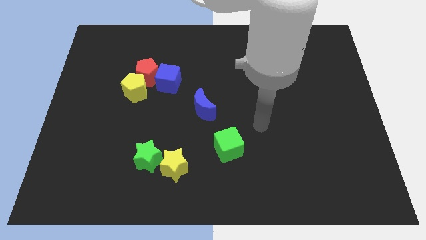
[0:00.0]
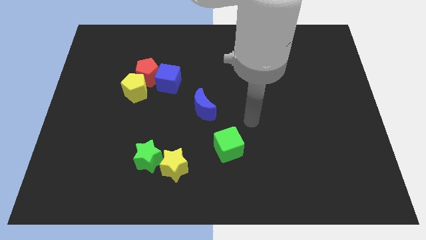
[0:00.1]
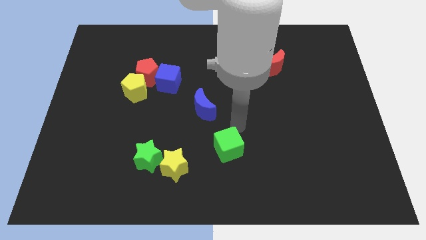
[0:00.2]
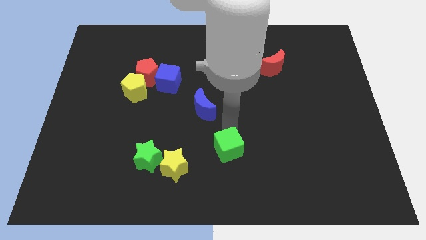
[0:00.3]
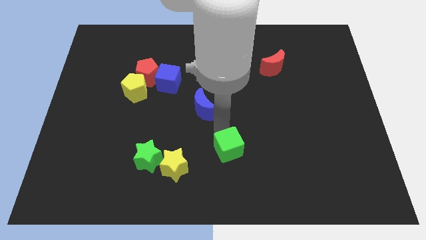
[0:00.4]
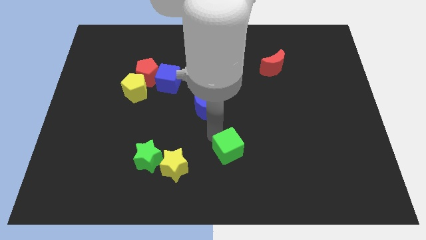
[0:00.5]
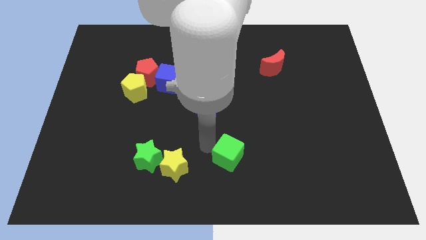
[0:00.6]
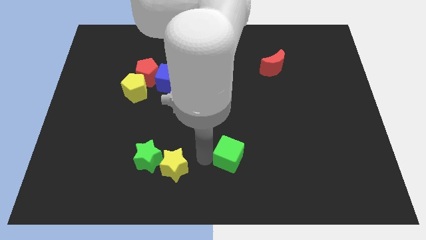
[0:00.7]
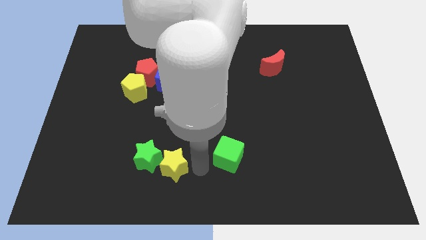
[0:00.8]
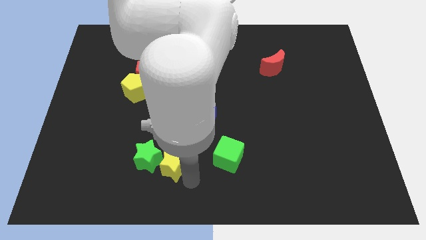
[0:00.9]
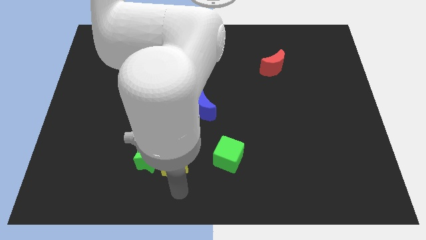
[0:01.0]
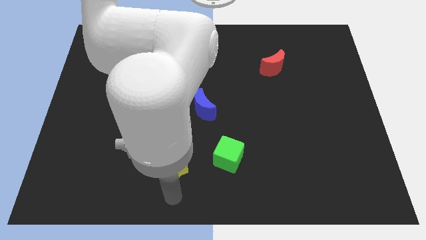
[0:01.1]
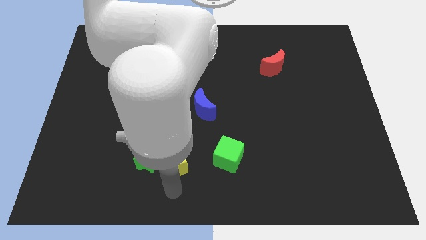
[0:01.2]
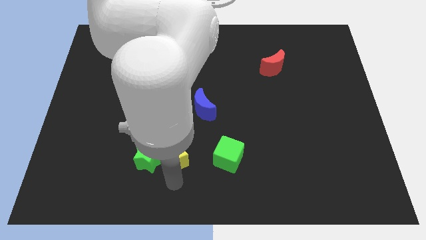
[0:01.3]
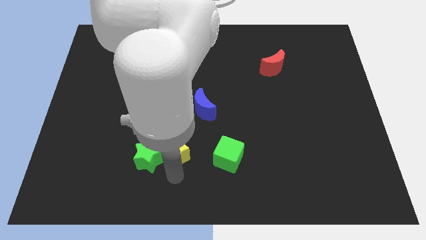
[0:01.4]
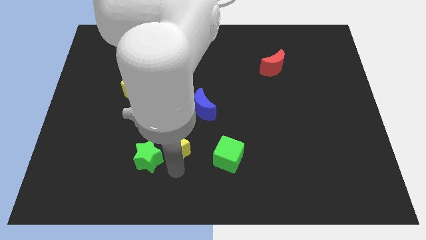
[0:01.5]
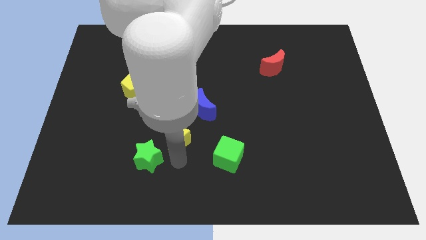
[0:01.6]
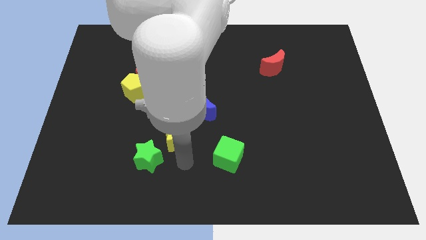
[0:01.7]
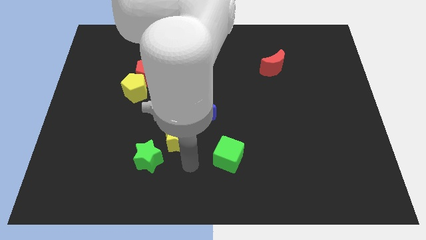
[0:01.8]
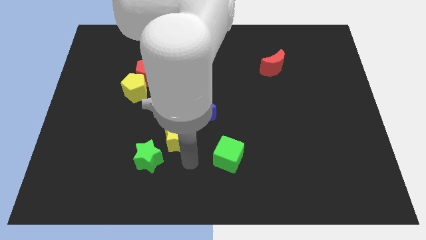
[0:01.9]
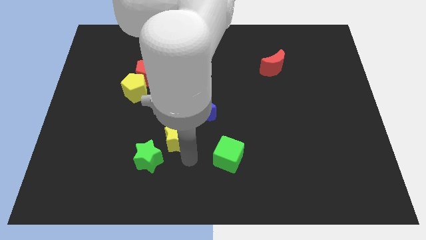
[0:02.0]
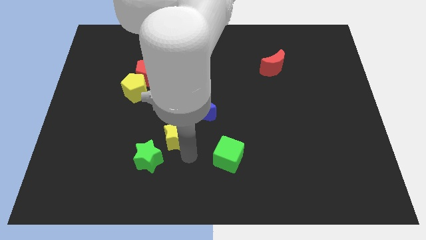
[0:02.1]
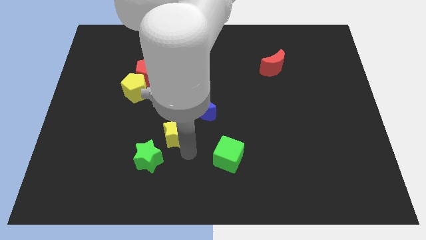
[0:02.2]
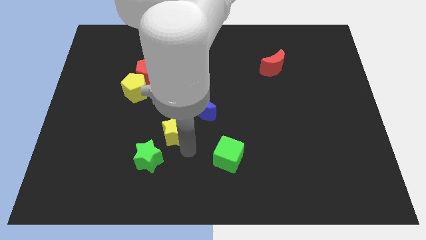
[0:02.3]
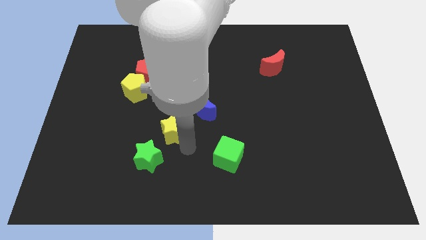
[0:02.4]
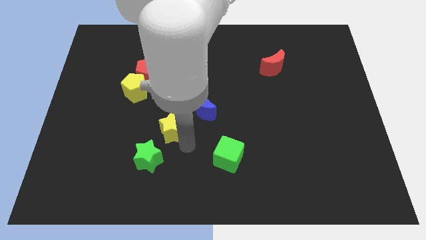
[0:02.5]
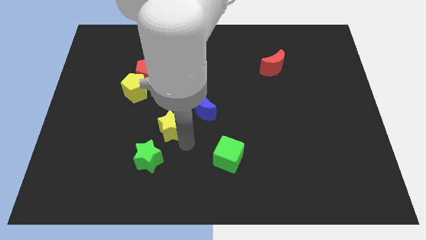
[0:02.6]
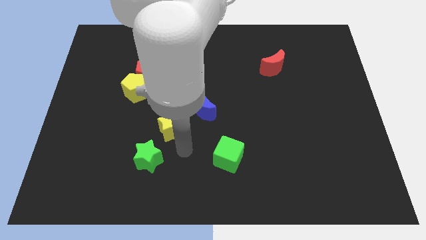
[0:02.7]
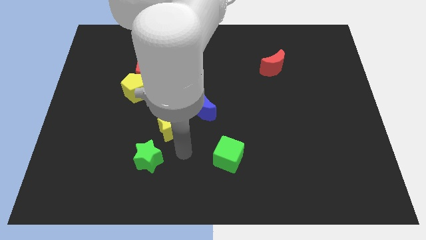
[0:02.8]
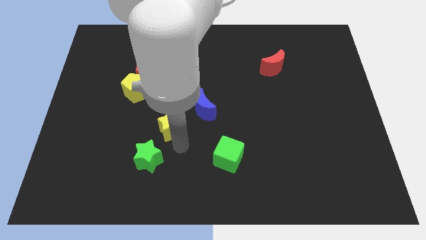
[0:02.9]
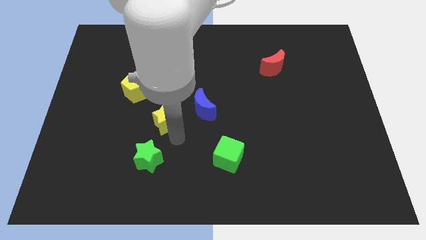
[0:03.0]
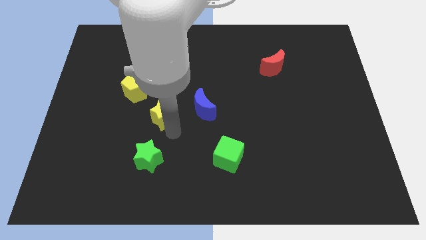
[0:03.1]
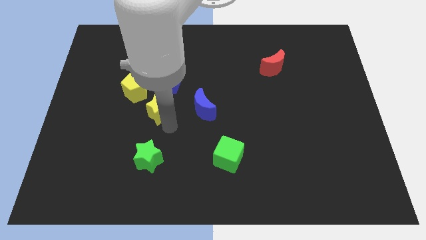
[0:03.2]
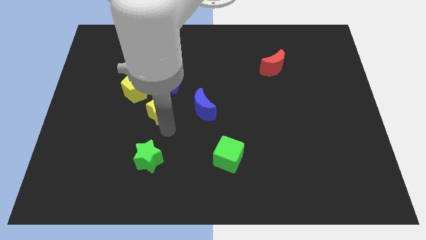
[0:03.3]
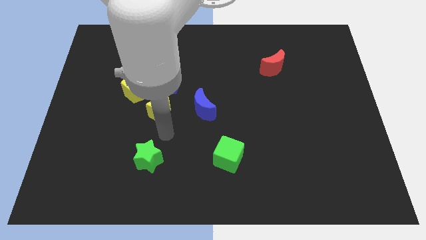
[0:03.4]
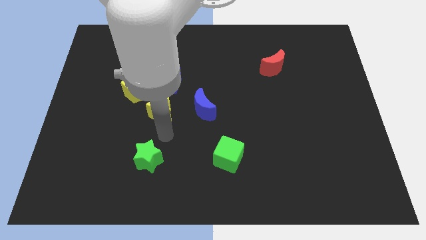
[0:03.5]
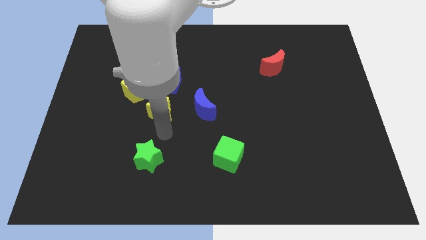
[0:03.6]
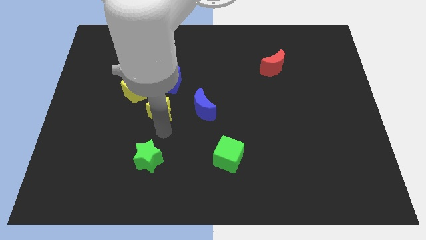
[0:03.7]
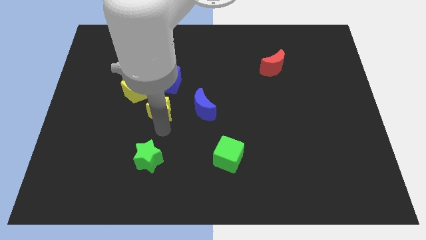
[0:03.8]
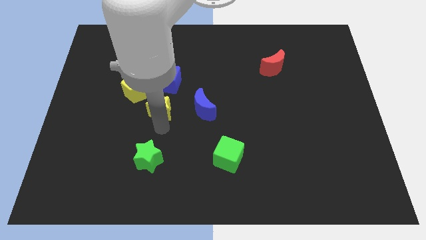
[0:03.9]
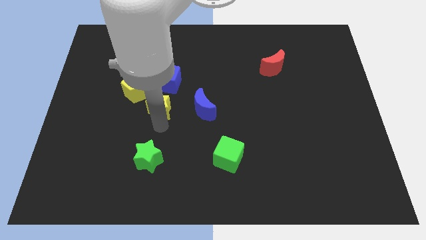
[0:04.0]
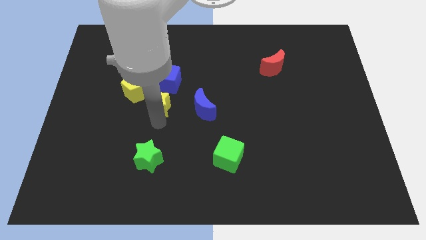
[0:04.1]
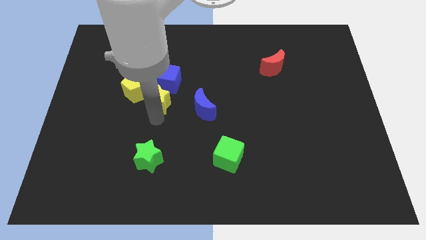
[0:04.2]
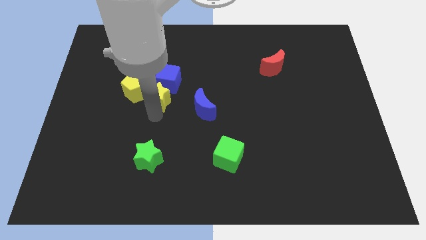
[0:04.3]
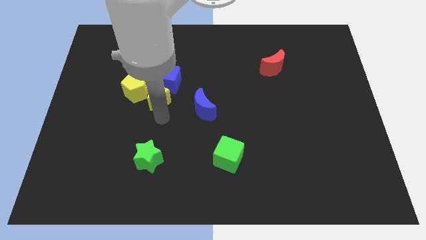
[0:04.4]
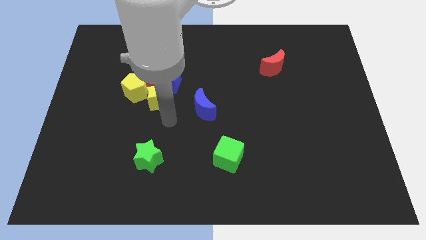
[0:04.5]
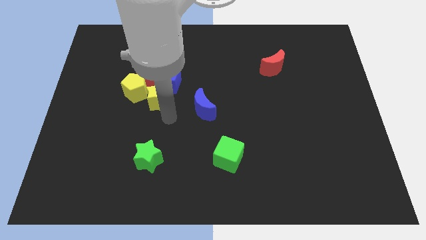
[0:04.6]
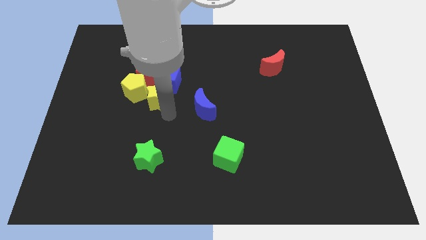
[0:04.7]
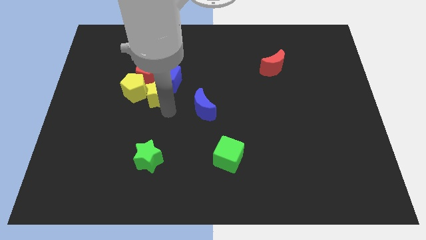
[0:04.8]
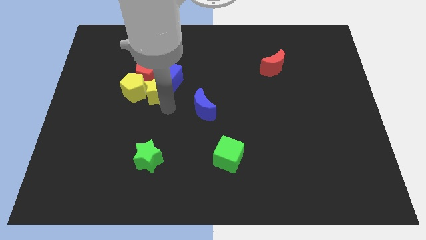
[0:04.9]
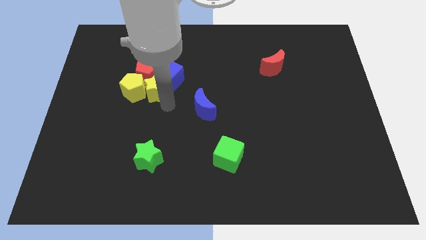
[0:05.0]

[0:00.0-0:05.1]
move the yellow star to the red pentagon

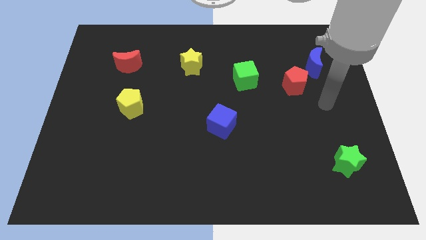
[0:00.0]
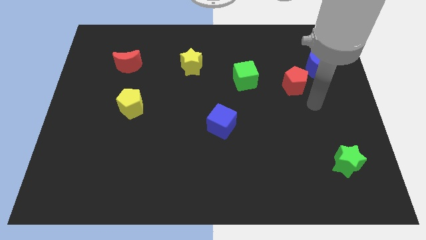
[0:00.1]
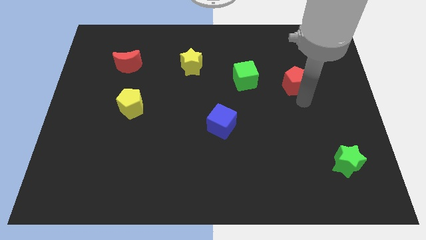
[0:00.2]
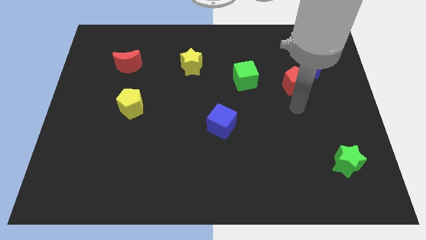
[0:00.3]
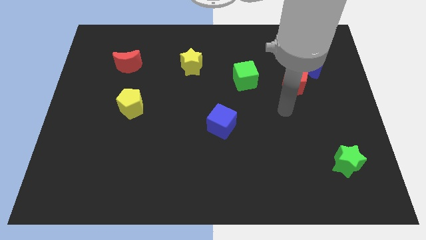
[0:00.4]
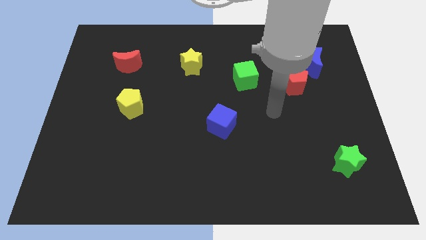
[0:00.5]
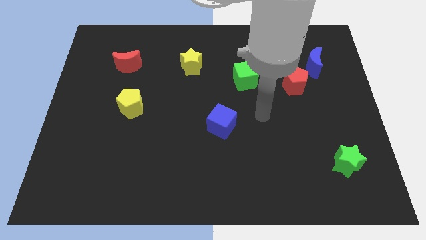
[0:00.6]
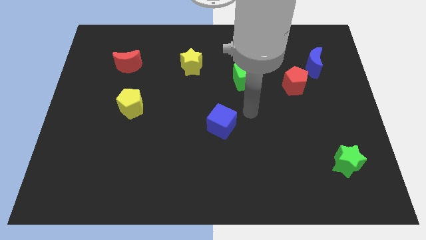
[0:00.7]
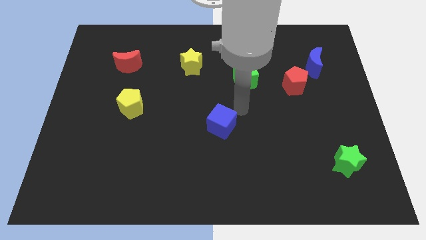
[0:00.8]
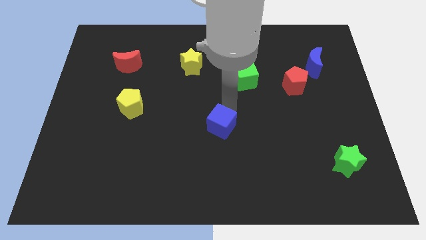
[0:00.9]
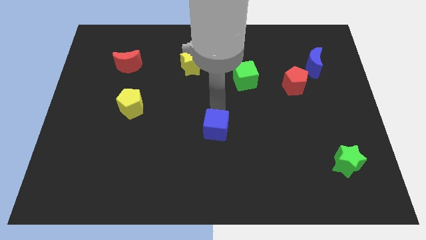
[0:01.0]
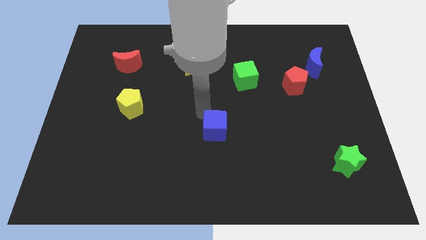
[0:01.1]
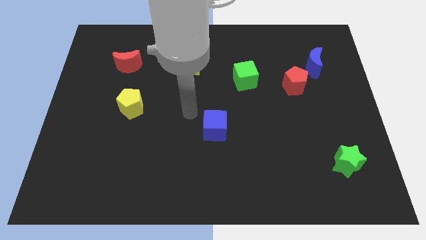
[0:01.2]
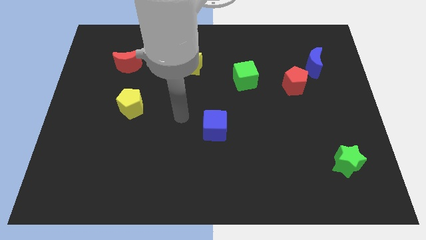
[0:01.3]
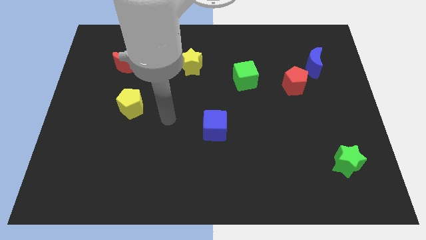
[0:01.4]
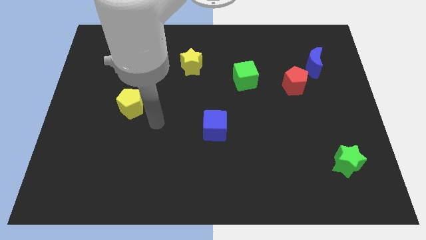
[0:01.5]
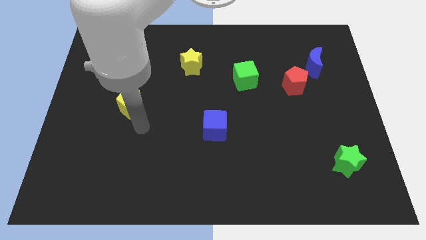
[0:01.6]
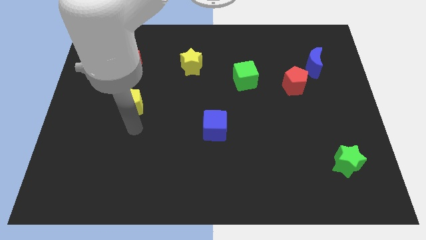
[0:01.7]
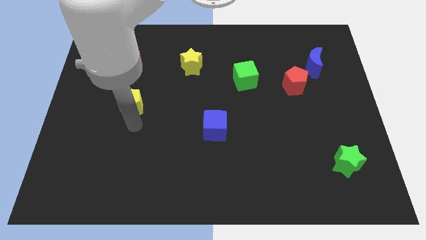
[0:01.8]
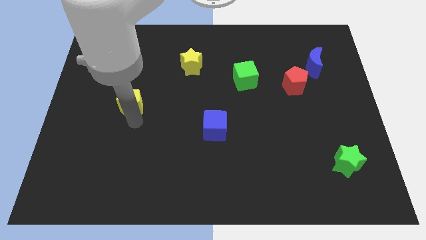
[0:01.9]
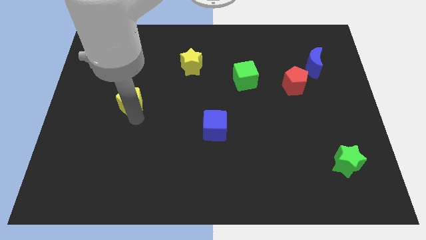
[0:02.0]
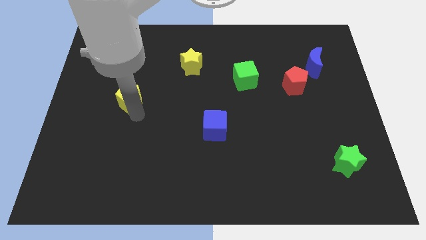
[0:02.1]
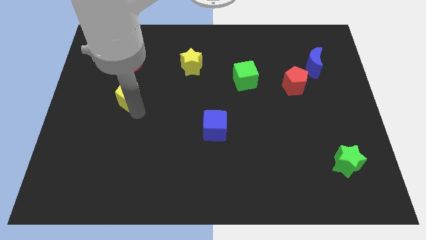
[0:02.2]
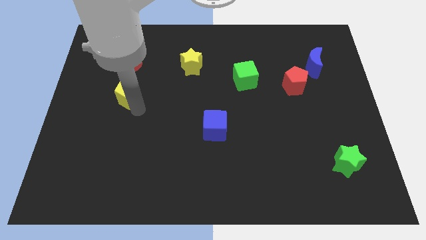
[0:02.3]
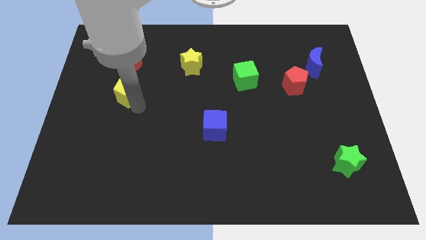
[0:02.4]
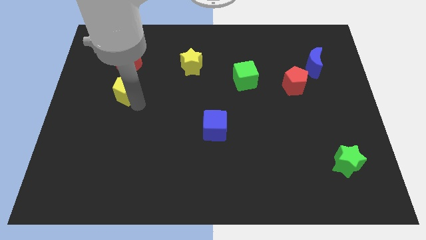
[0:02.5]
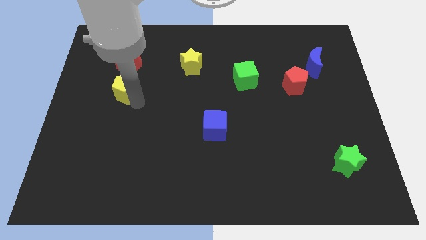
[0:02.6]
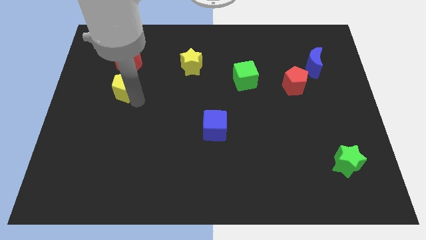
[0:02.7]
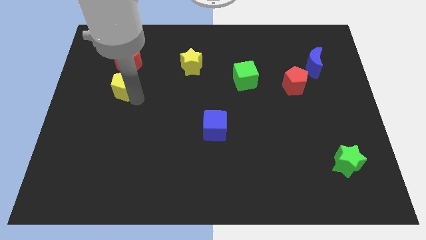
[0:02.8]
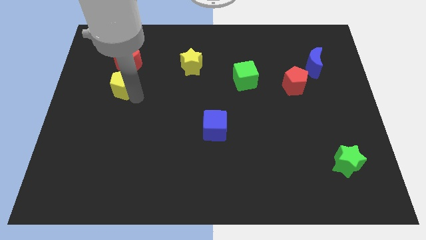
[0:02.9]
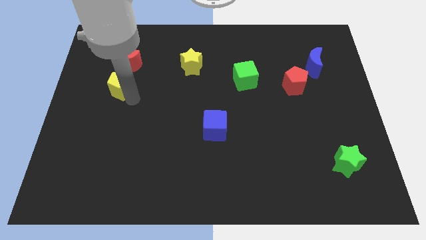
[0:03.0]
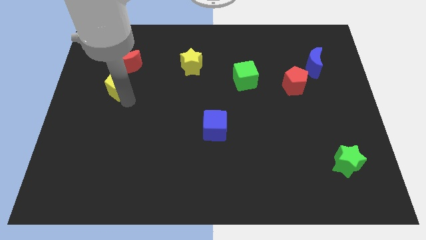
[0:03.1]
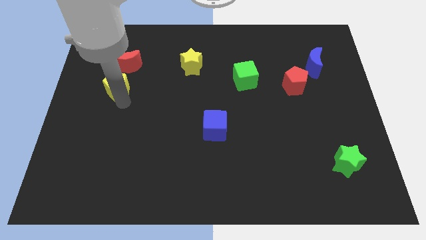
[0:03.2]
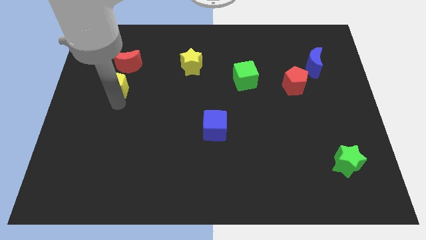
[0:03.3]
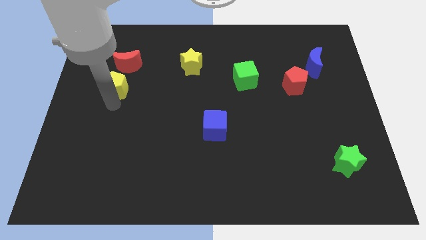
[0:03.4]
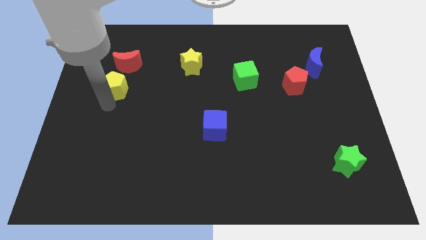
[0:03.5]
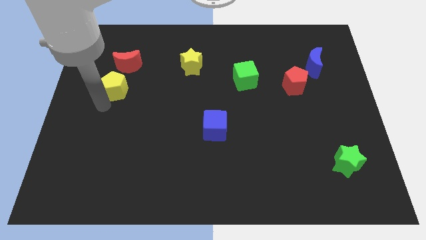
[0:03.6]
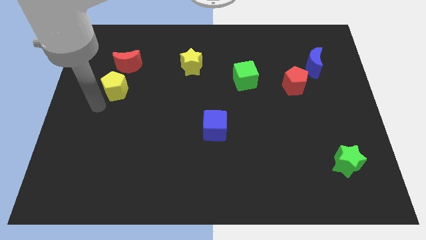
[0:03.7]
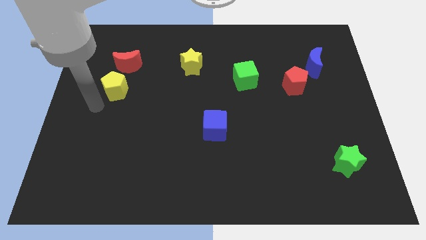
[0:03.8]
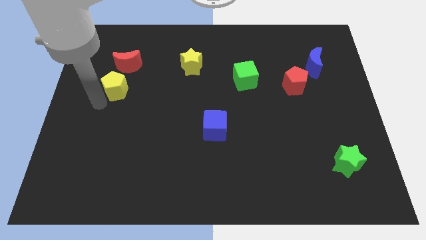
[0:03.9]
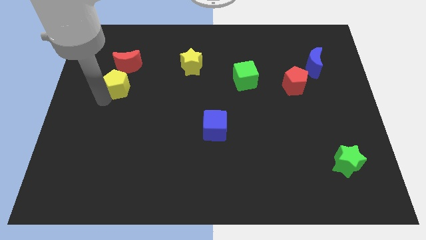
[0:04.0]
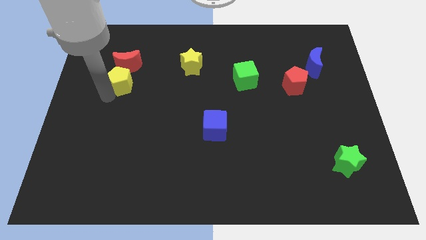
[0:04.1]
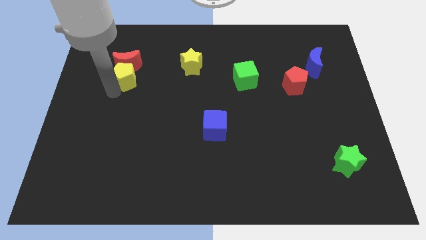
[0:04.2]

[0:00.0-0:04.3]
move the yellow pentagon close to the red moon
